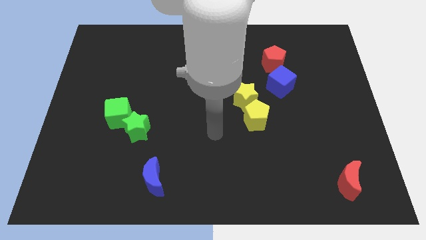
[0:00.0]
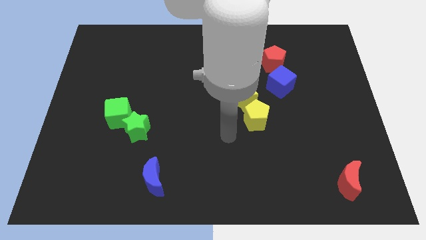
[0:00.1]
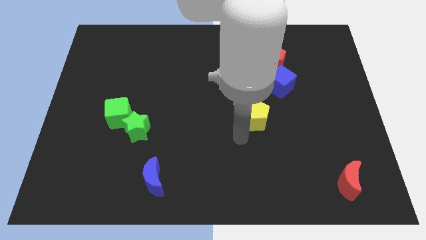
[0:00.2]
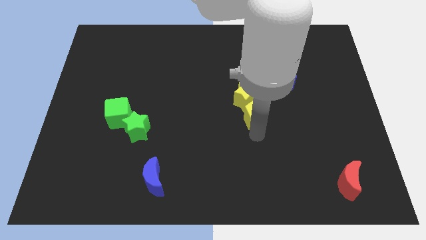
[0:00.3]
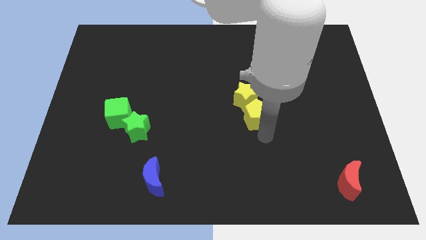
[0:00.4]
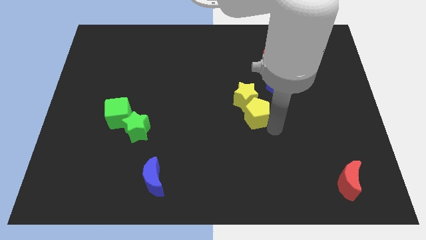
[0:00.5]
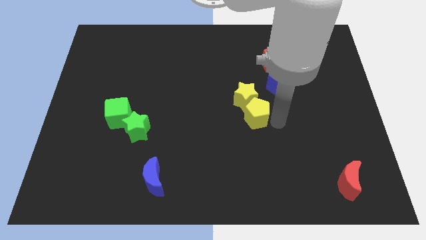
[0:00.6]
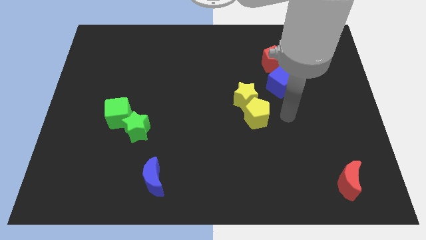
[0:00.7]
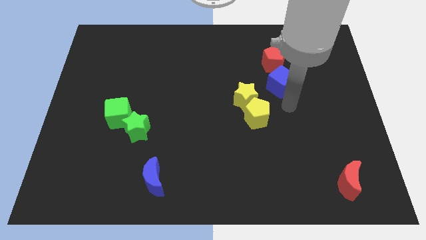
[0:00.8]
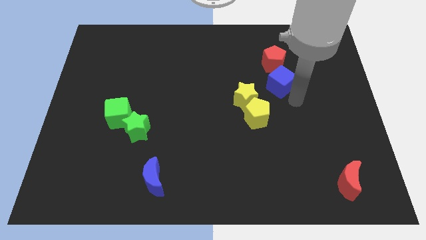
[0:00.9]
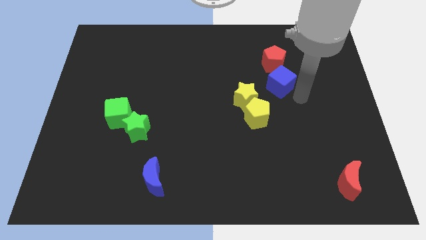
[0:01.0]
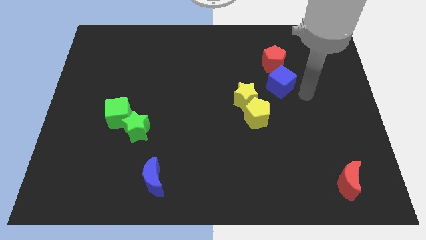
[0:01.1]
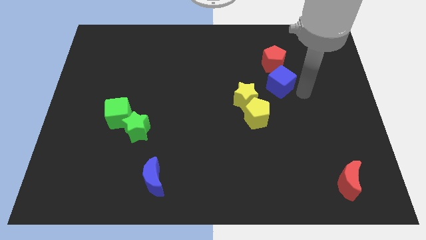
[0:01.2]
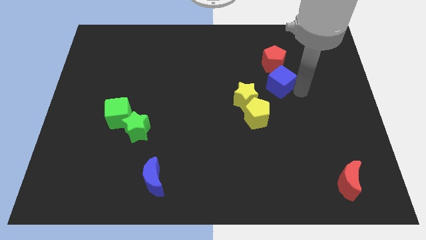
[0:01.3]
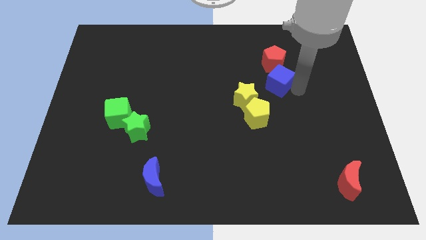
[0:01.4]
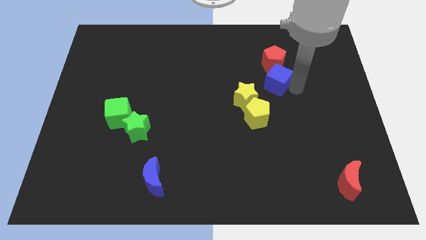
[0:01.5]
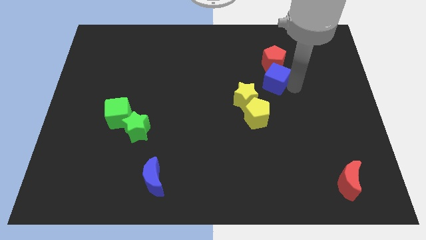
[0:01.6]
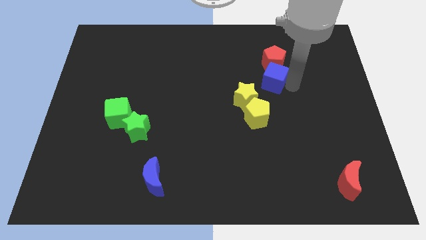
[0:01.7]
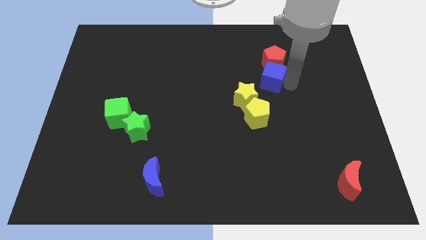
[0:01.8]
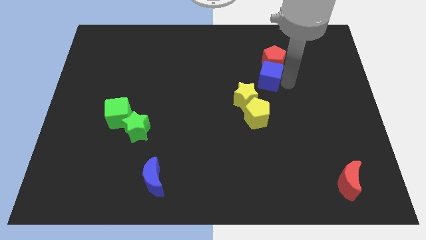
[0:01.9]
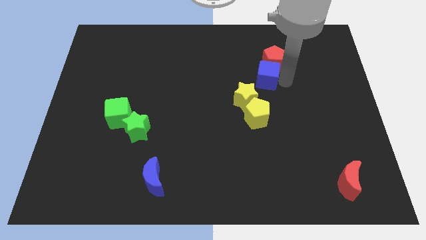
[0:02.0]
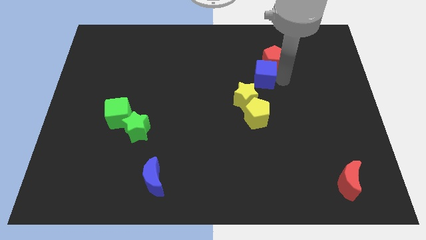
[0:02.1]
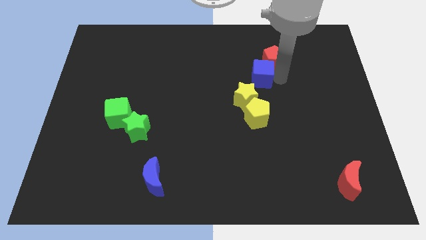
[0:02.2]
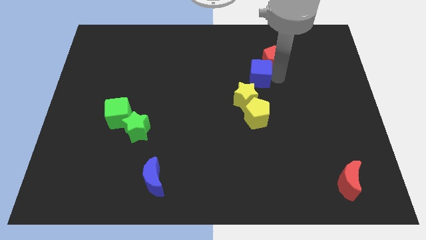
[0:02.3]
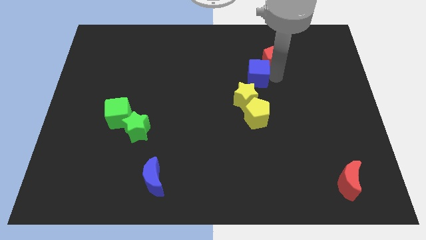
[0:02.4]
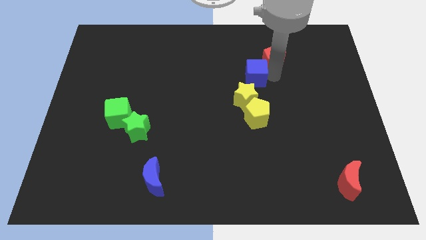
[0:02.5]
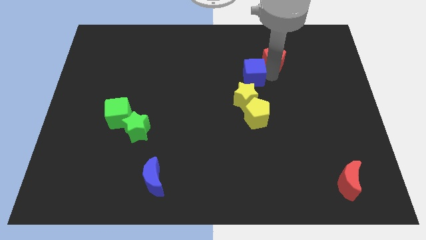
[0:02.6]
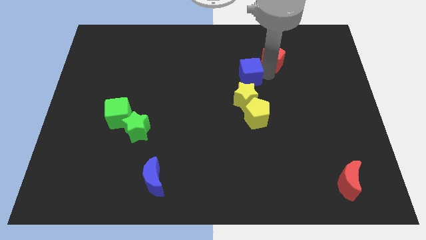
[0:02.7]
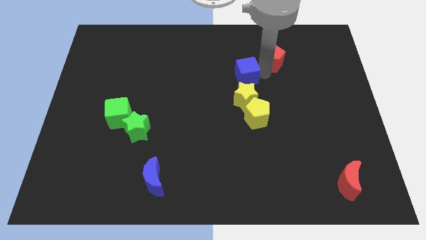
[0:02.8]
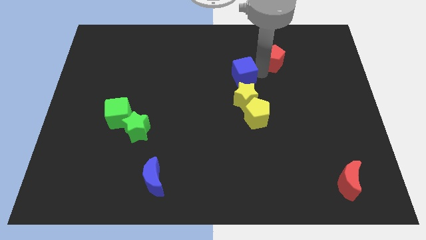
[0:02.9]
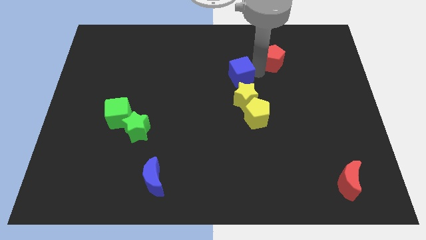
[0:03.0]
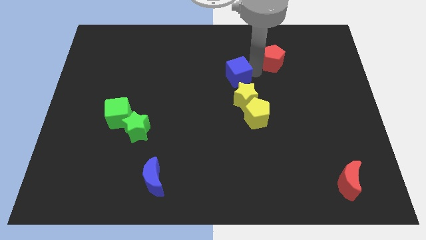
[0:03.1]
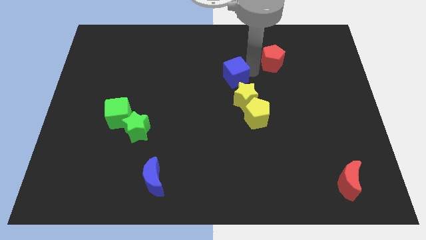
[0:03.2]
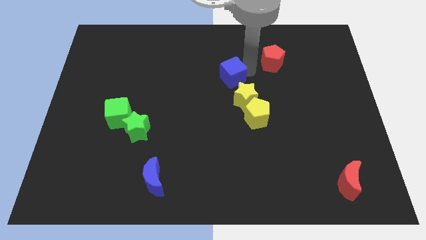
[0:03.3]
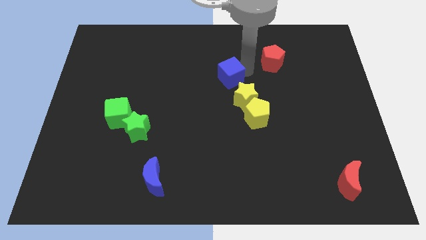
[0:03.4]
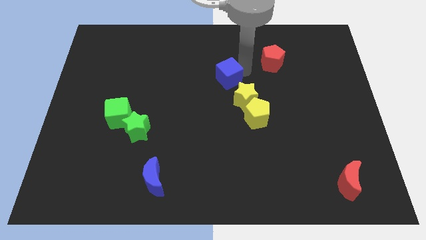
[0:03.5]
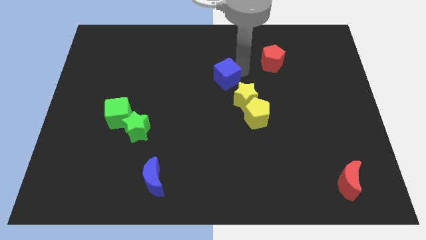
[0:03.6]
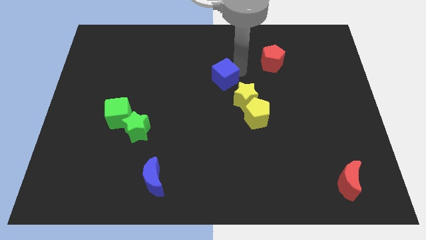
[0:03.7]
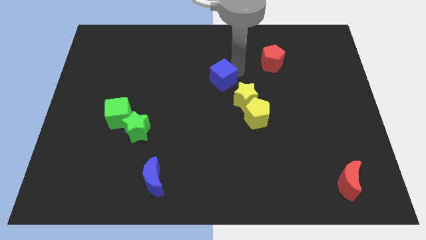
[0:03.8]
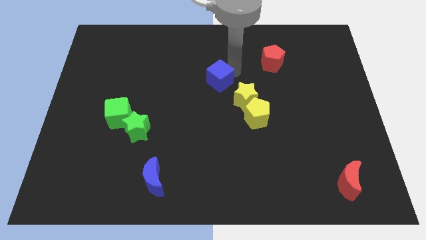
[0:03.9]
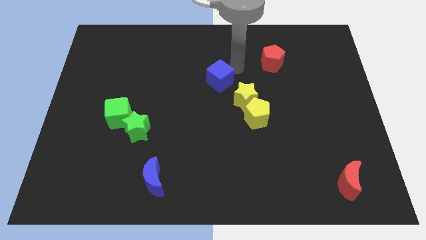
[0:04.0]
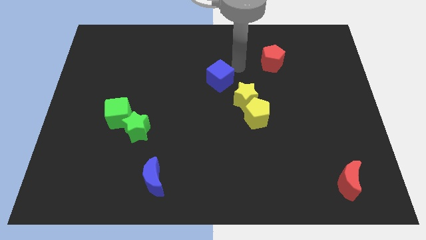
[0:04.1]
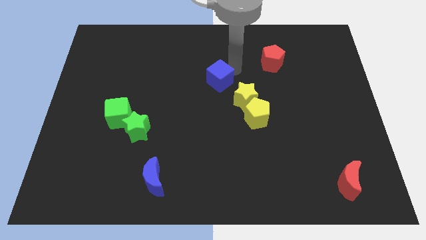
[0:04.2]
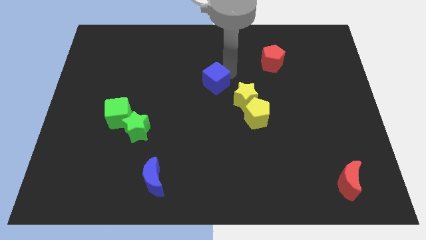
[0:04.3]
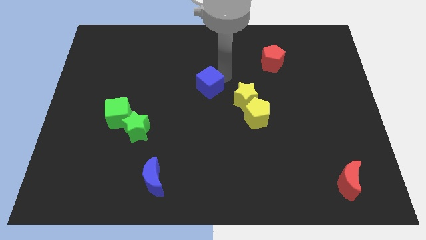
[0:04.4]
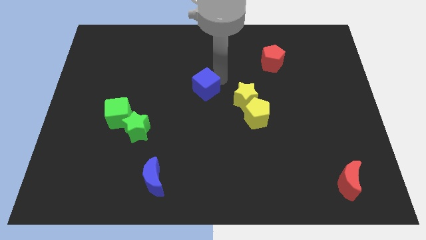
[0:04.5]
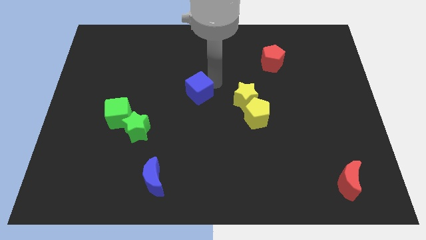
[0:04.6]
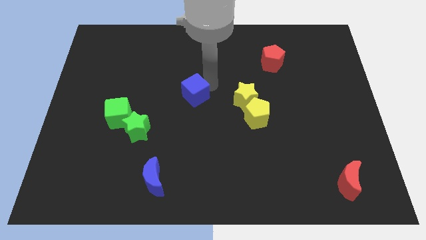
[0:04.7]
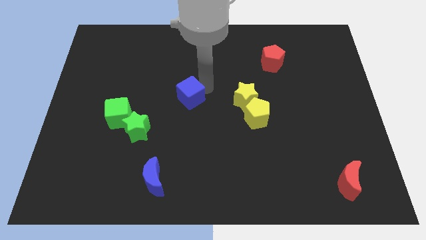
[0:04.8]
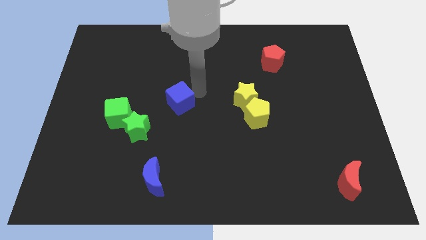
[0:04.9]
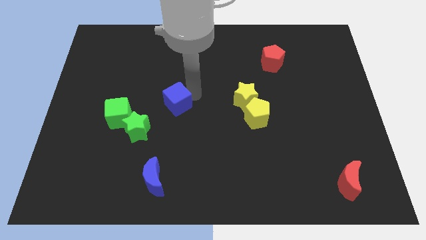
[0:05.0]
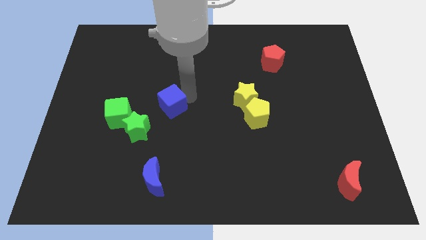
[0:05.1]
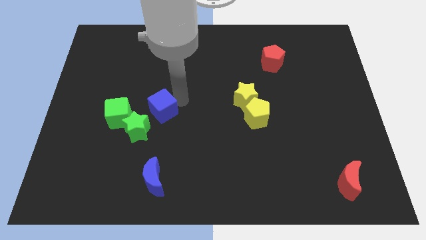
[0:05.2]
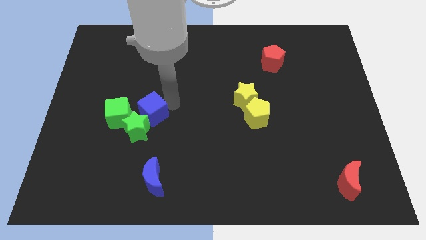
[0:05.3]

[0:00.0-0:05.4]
push the blue cube to the green star

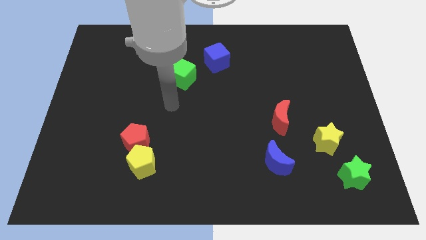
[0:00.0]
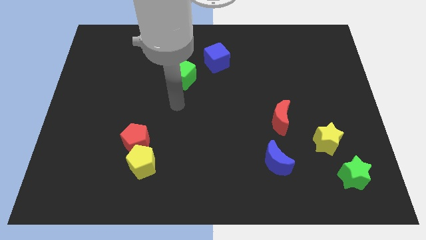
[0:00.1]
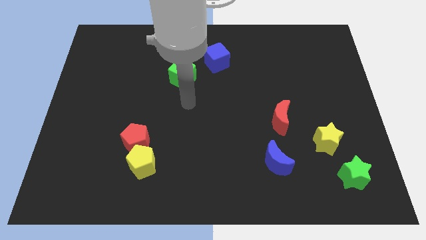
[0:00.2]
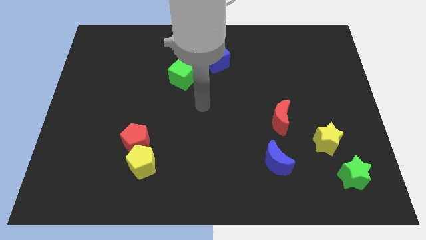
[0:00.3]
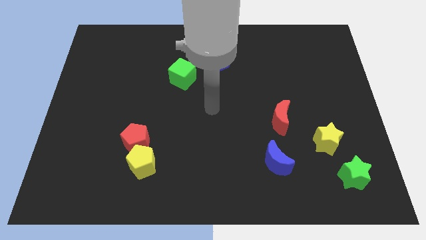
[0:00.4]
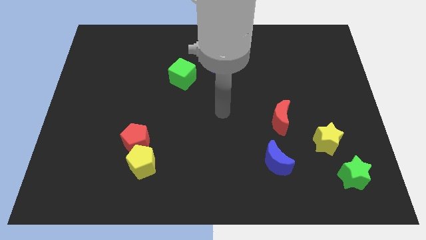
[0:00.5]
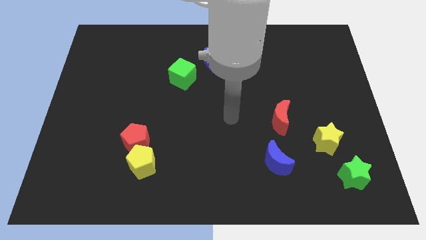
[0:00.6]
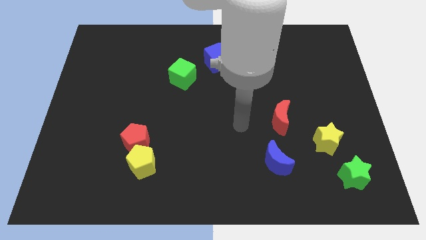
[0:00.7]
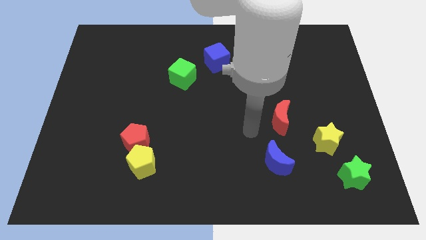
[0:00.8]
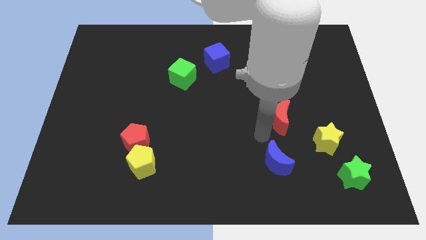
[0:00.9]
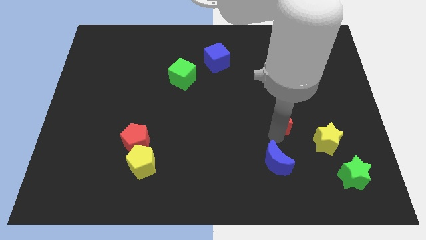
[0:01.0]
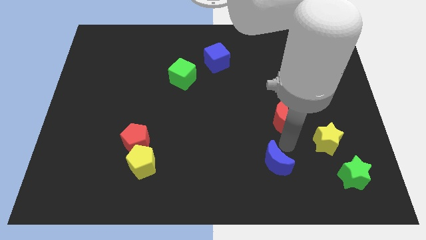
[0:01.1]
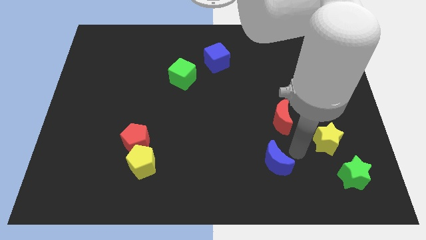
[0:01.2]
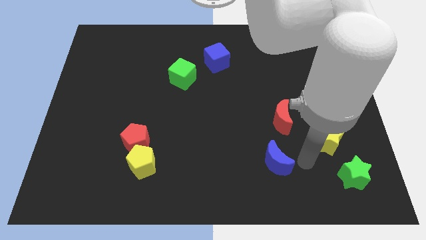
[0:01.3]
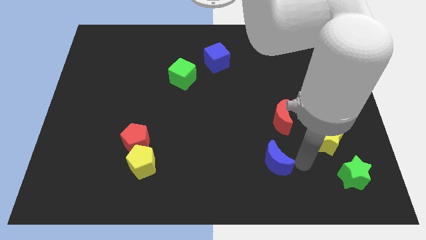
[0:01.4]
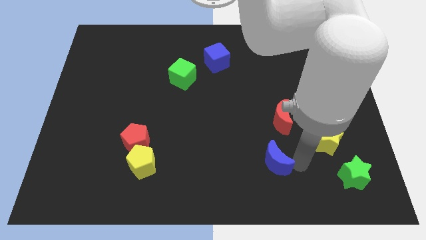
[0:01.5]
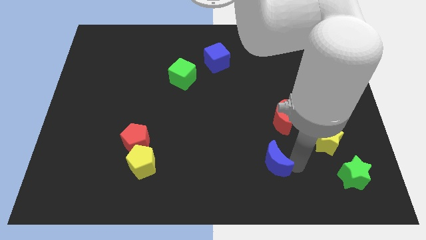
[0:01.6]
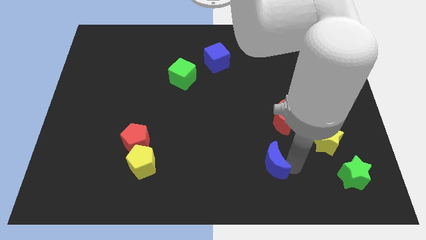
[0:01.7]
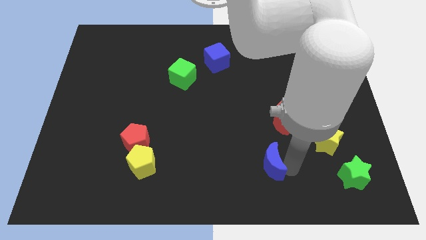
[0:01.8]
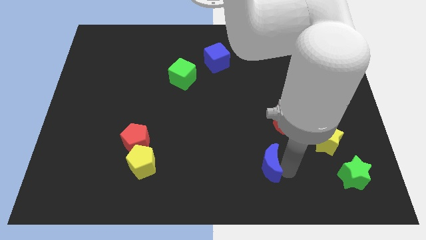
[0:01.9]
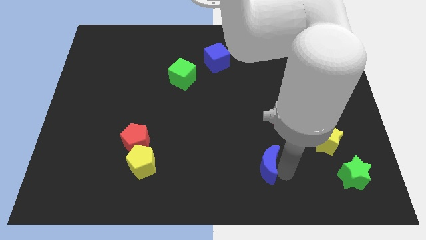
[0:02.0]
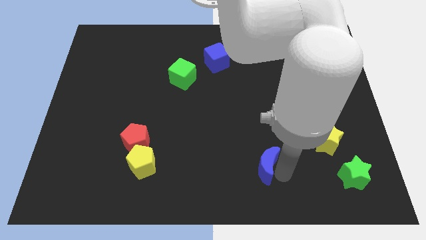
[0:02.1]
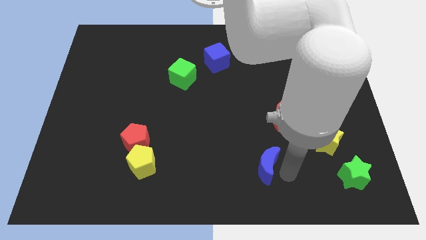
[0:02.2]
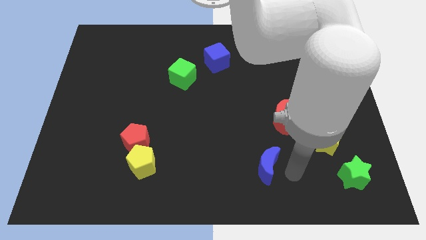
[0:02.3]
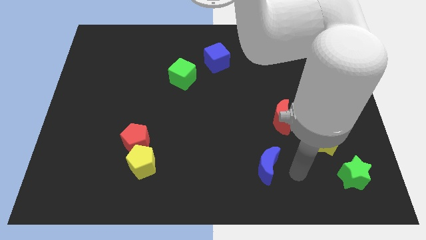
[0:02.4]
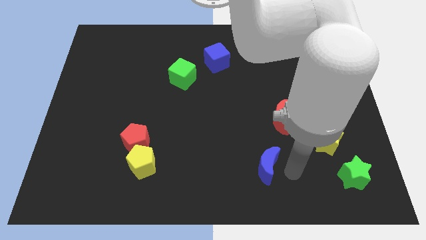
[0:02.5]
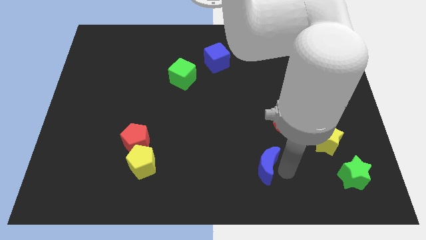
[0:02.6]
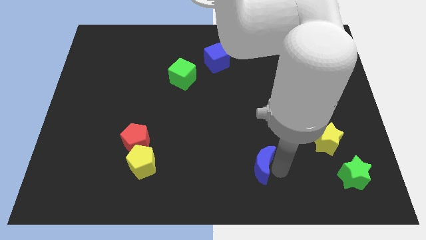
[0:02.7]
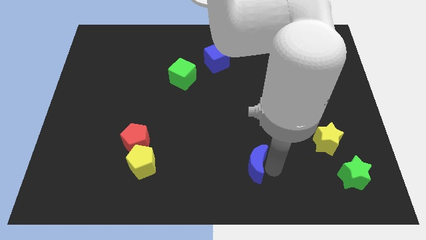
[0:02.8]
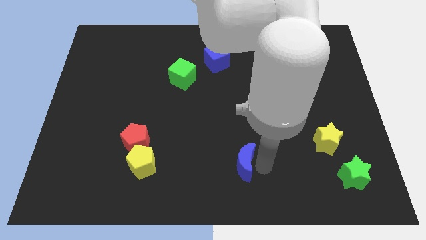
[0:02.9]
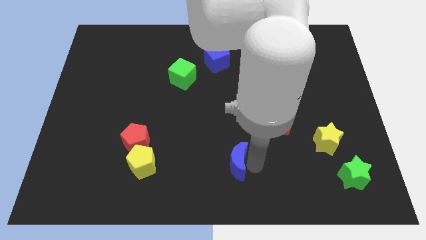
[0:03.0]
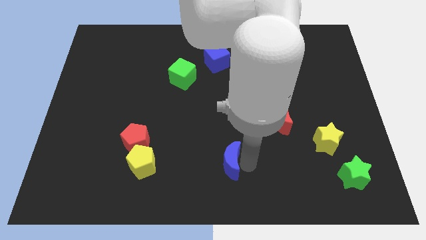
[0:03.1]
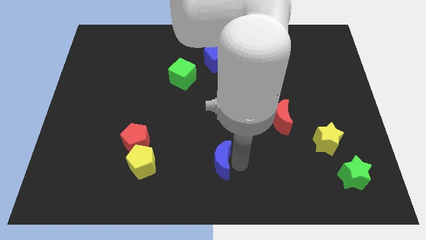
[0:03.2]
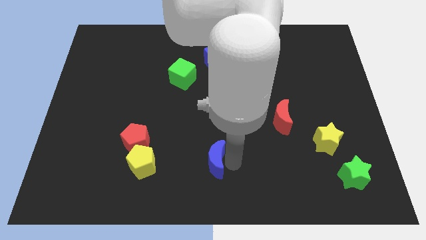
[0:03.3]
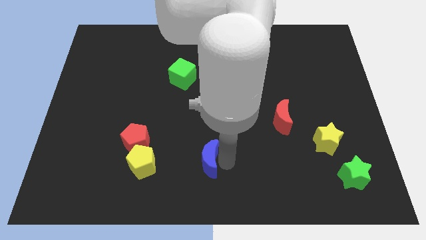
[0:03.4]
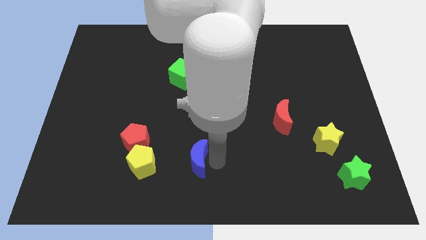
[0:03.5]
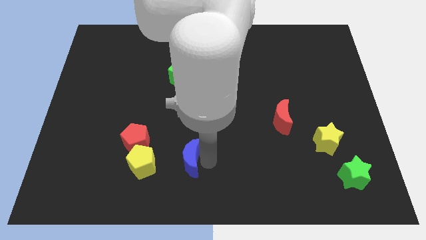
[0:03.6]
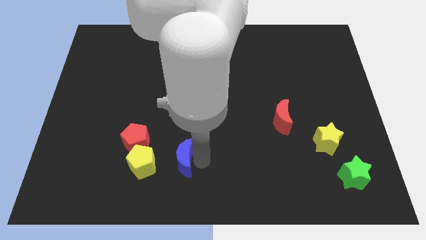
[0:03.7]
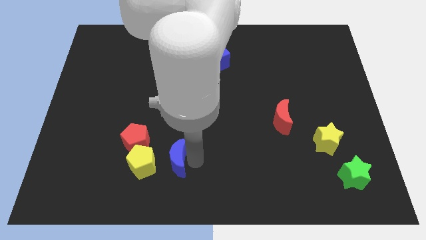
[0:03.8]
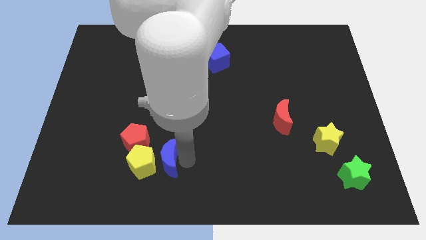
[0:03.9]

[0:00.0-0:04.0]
push the blue moon next to the yellow pentagon
